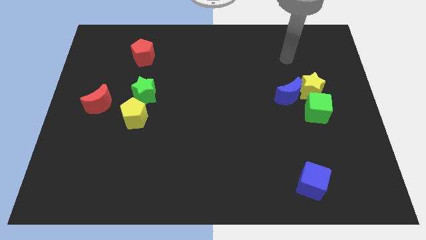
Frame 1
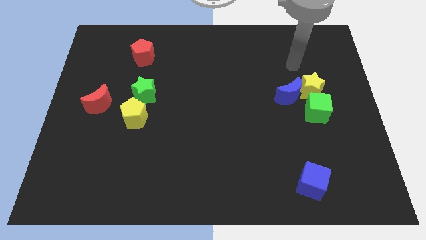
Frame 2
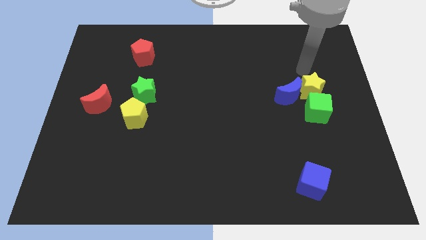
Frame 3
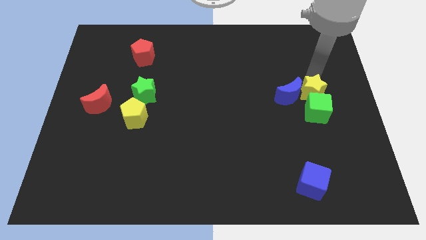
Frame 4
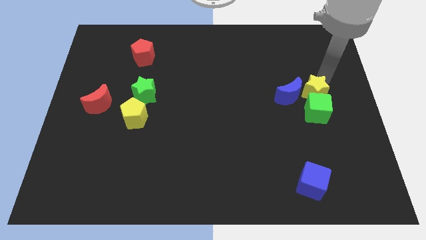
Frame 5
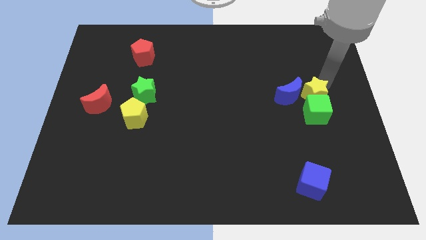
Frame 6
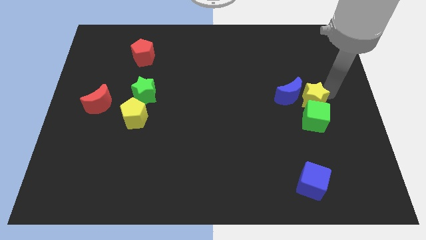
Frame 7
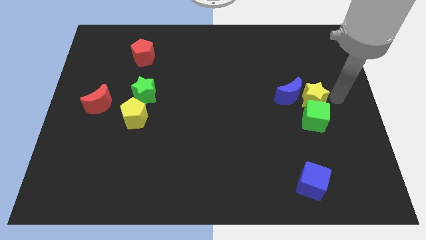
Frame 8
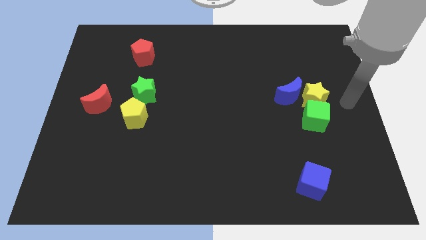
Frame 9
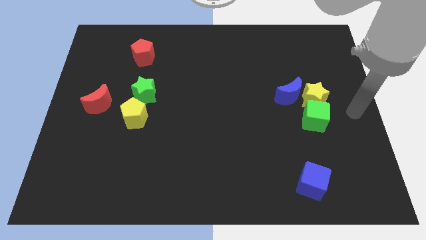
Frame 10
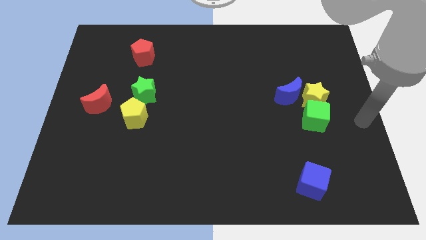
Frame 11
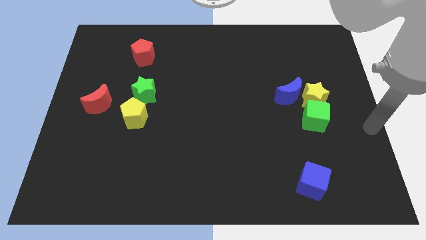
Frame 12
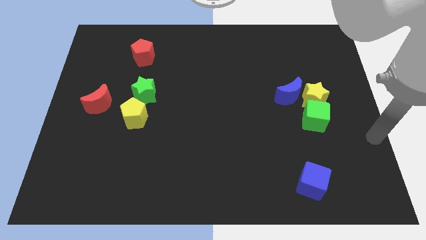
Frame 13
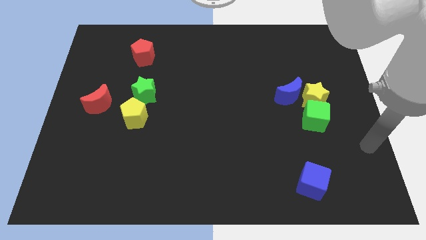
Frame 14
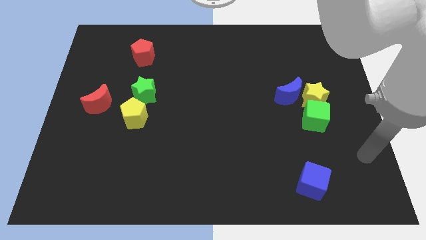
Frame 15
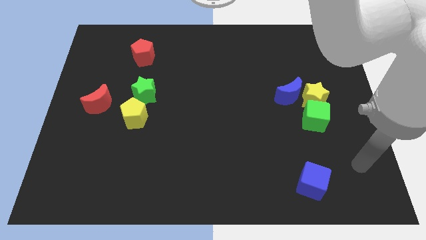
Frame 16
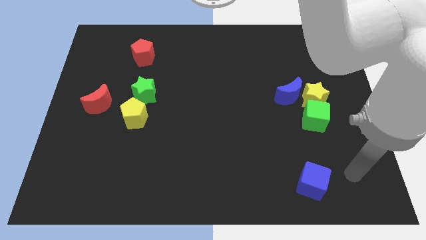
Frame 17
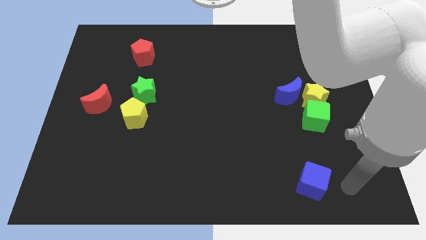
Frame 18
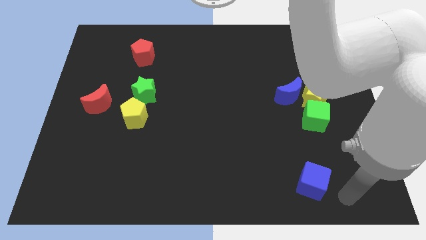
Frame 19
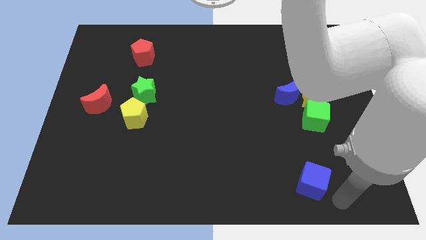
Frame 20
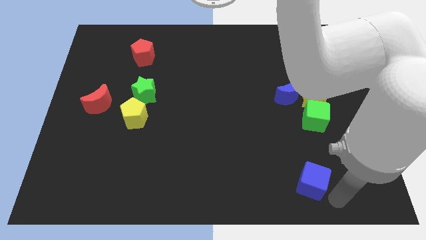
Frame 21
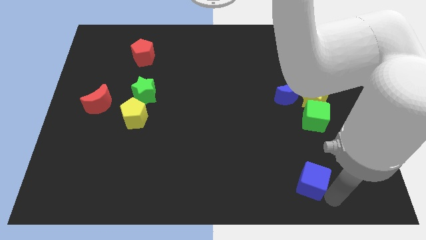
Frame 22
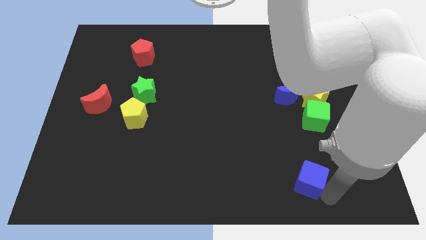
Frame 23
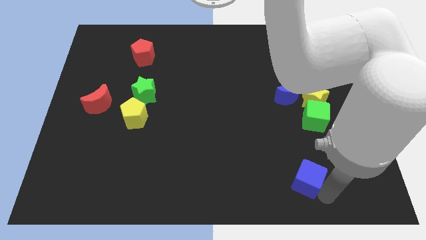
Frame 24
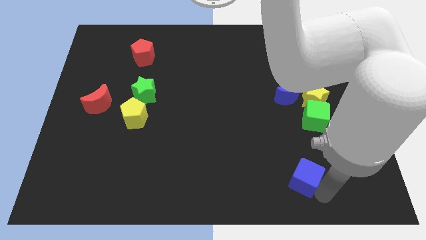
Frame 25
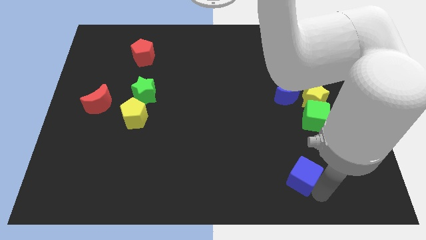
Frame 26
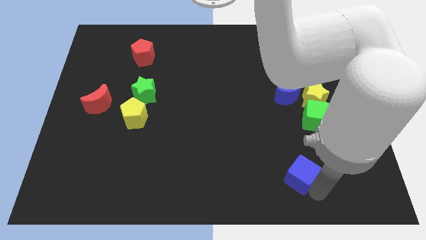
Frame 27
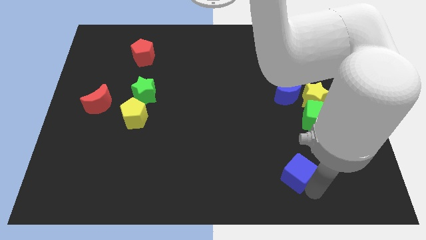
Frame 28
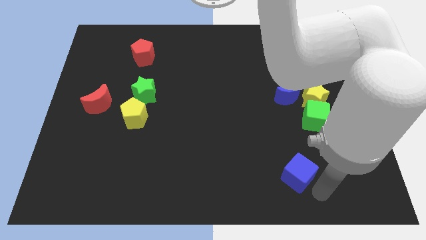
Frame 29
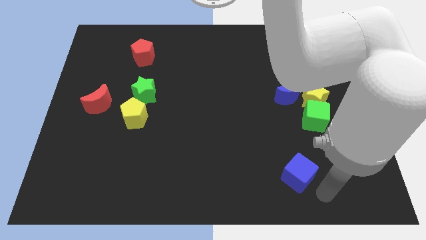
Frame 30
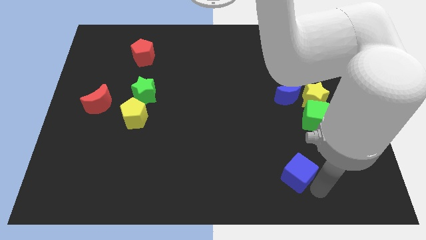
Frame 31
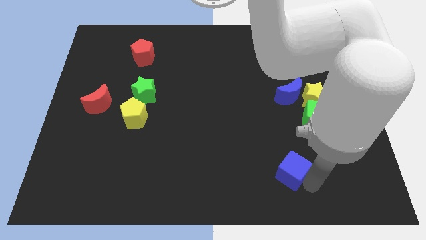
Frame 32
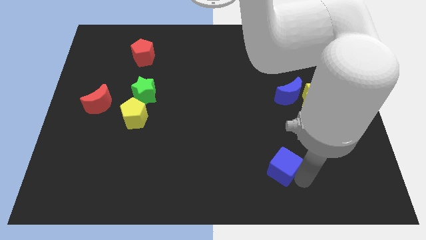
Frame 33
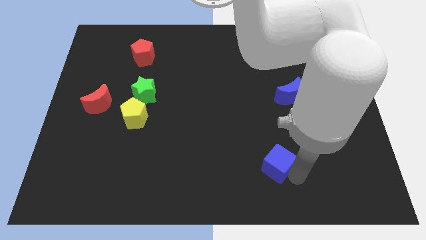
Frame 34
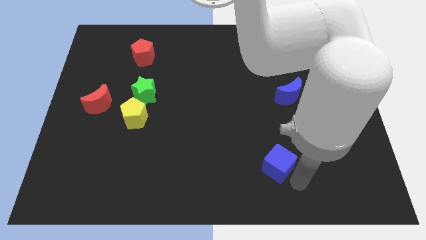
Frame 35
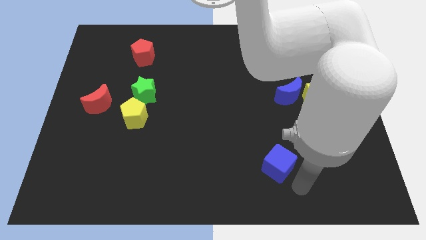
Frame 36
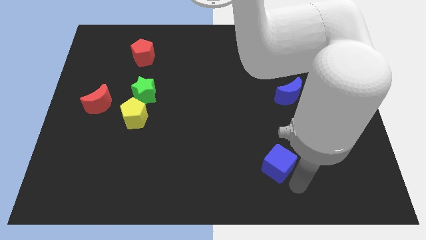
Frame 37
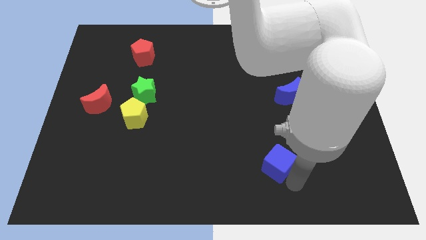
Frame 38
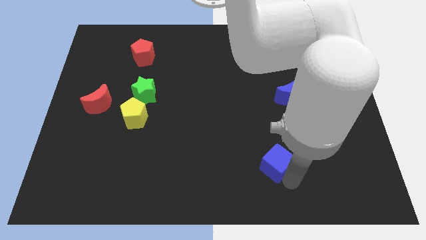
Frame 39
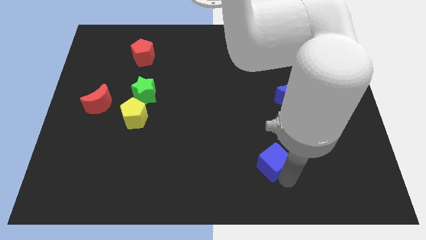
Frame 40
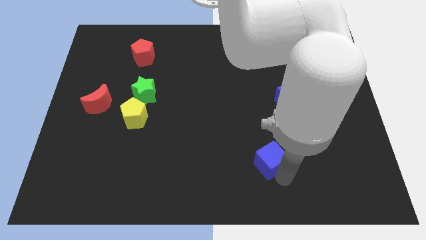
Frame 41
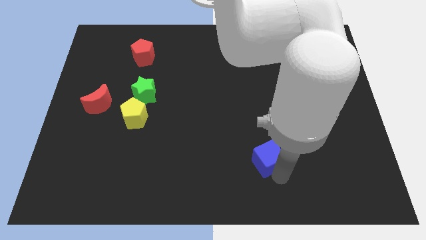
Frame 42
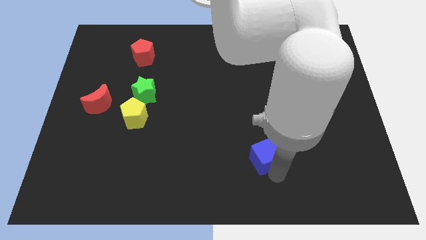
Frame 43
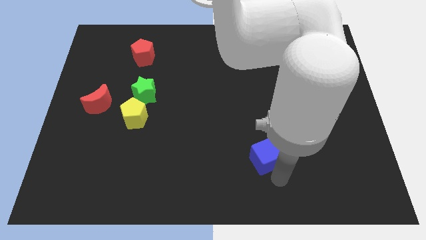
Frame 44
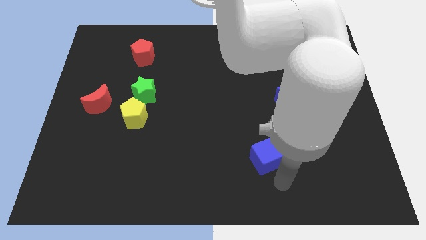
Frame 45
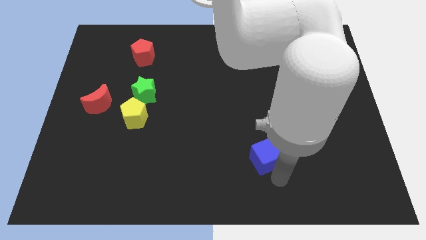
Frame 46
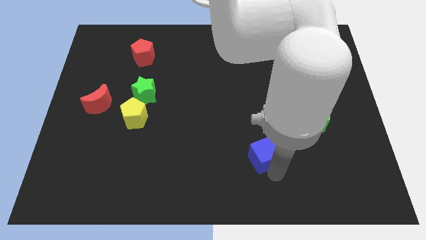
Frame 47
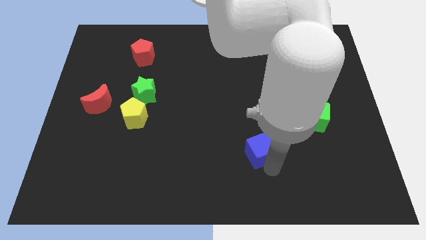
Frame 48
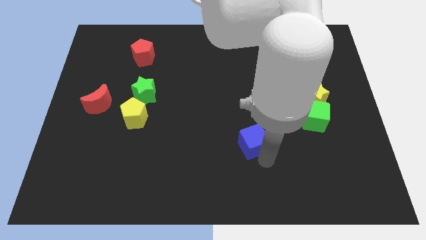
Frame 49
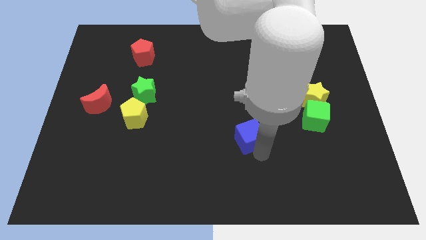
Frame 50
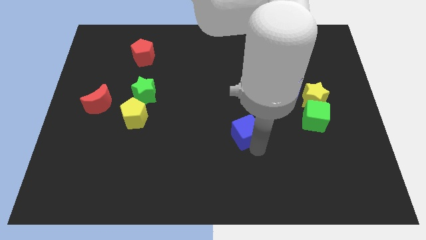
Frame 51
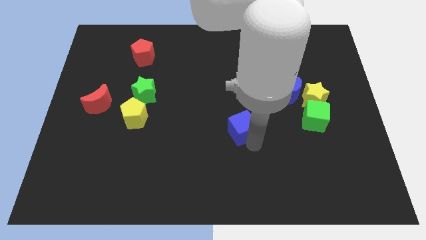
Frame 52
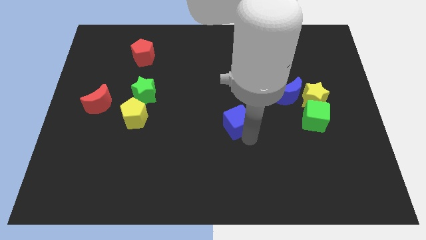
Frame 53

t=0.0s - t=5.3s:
move the blue cube up and left

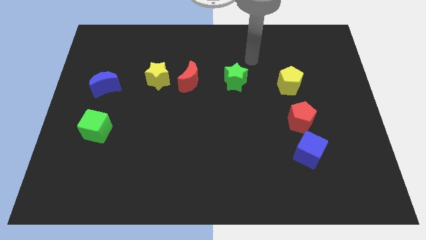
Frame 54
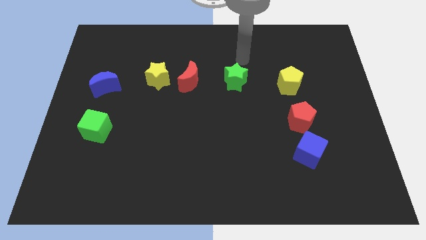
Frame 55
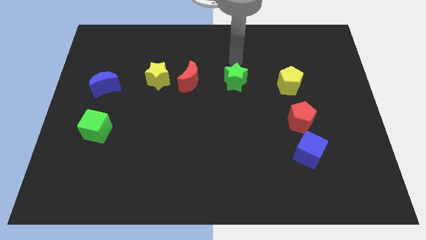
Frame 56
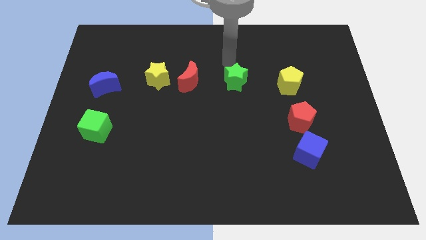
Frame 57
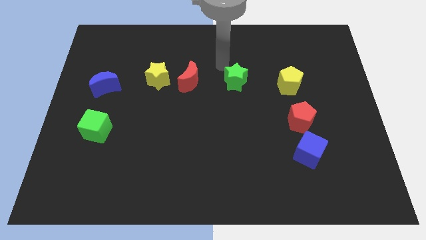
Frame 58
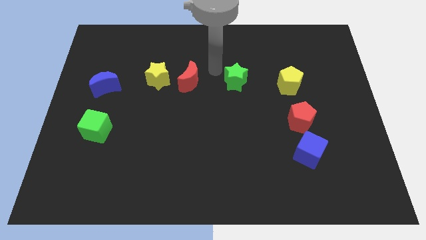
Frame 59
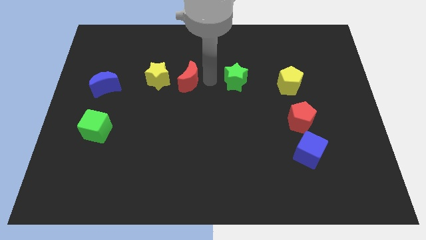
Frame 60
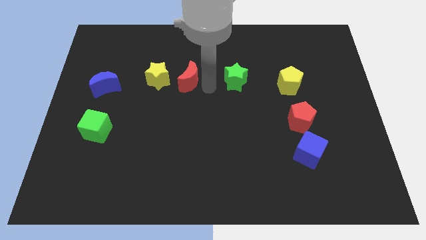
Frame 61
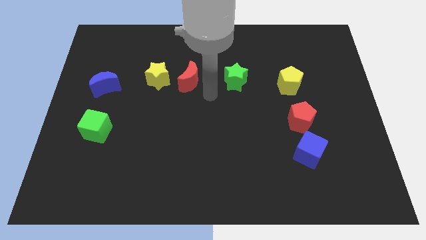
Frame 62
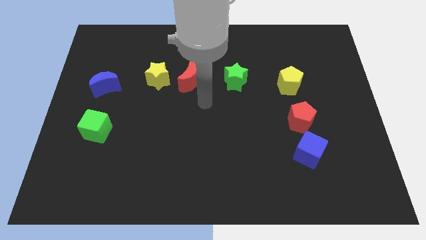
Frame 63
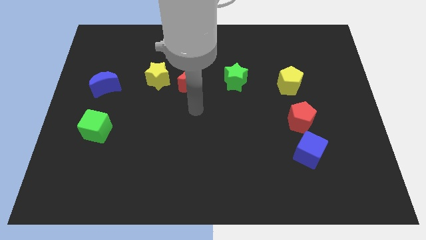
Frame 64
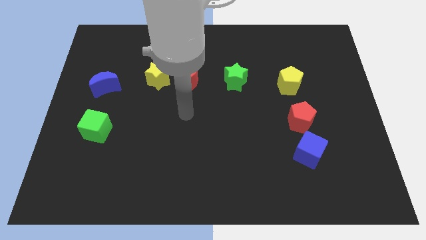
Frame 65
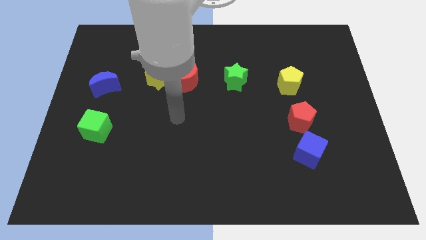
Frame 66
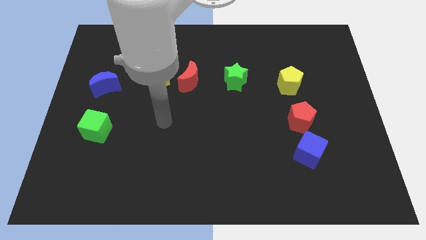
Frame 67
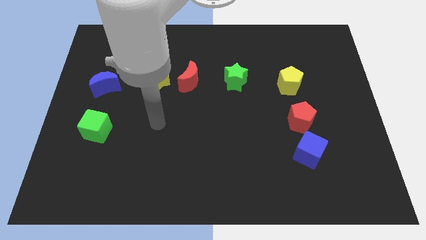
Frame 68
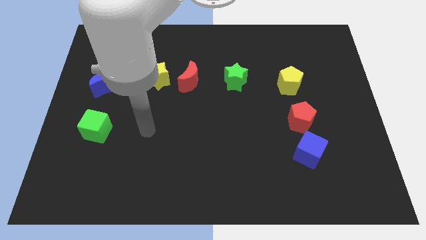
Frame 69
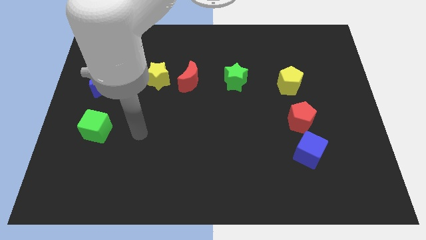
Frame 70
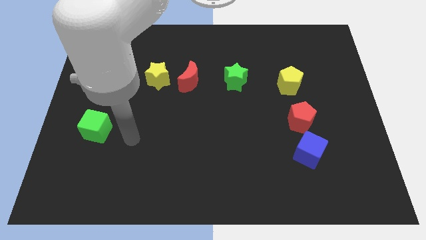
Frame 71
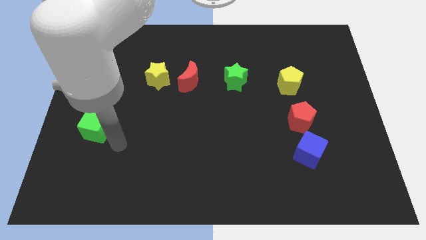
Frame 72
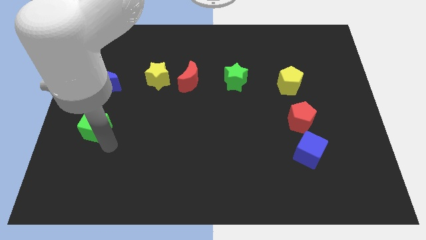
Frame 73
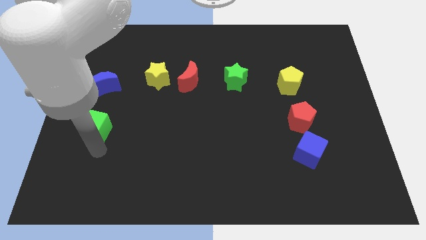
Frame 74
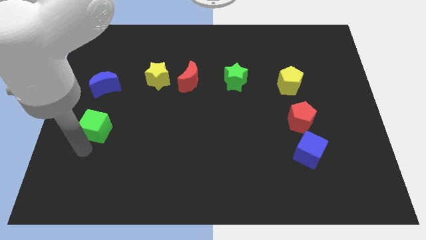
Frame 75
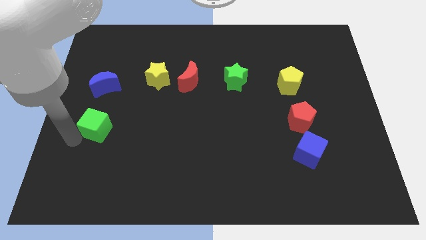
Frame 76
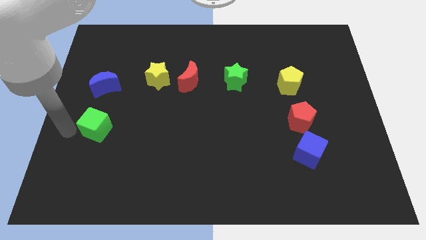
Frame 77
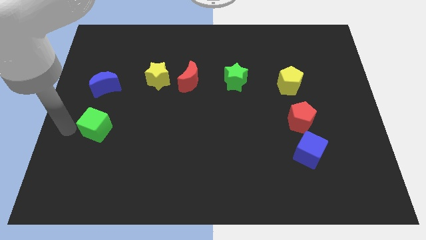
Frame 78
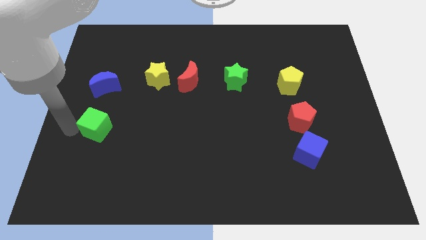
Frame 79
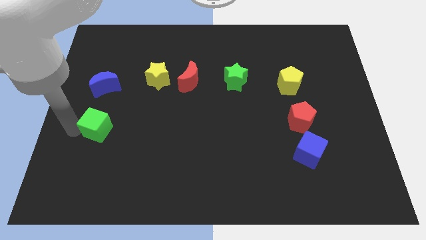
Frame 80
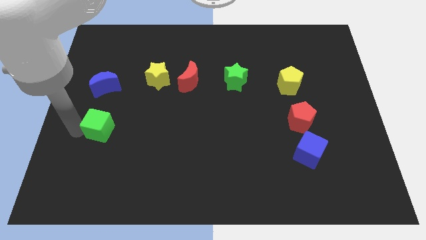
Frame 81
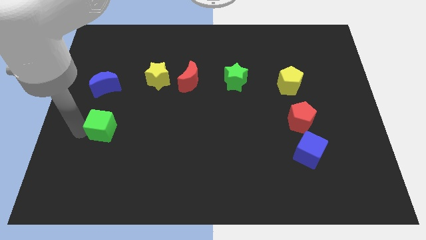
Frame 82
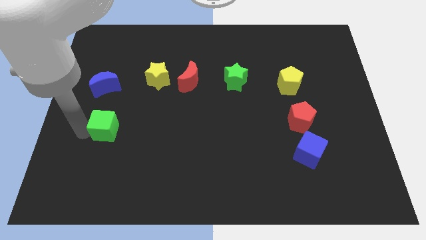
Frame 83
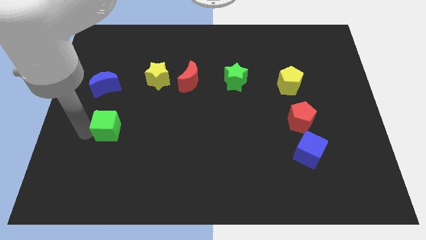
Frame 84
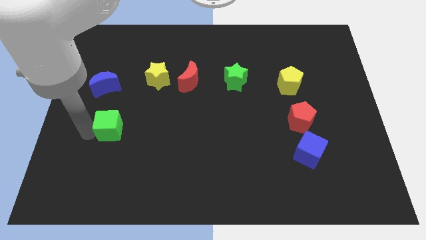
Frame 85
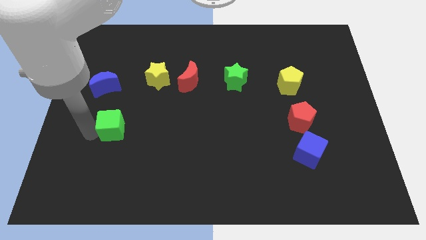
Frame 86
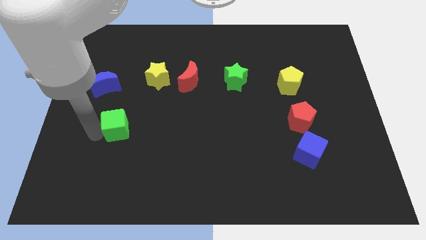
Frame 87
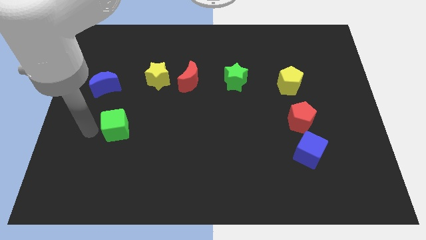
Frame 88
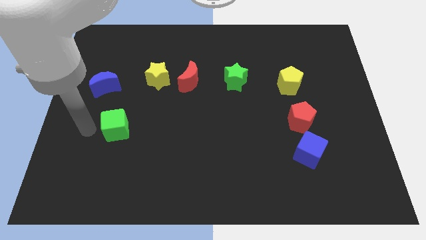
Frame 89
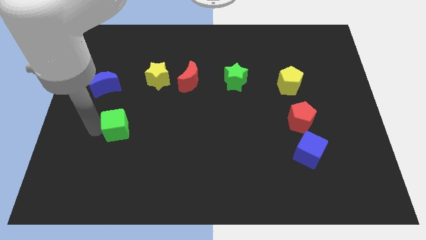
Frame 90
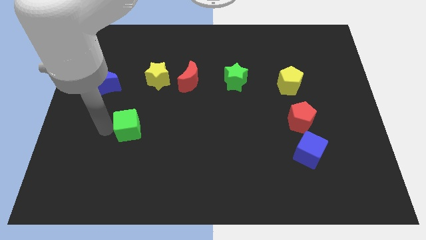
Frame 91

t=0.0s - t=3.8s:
slightly slide the green cube to the right
